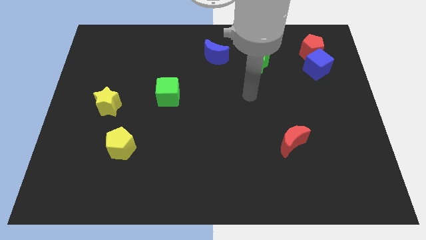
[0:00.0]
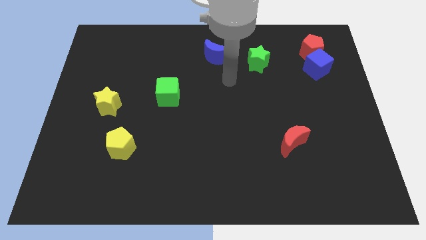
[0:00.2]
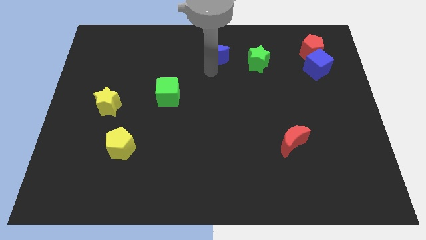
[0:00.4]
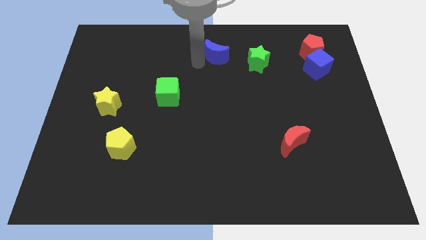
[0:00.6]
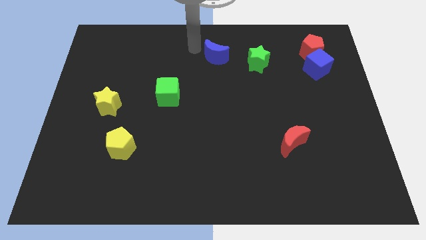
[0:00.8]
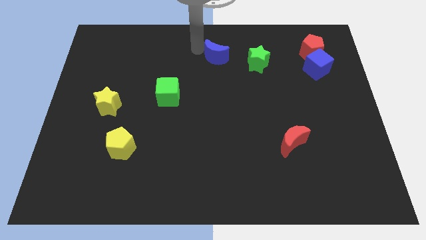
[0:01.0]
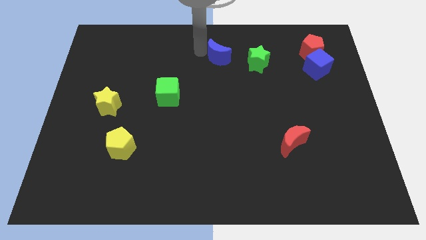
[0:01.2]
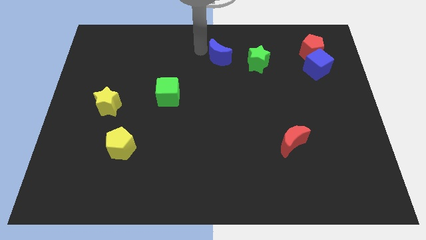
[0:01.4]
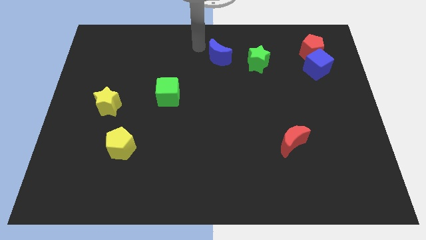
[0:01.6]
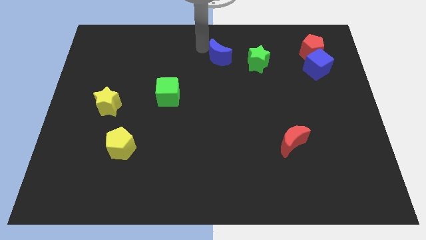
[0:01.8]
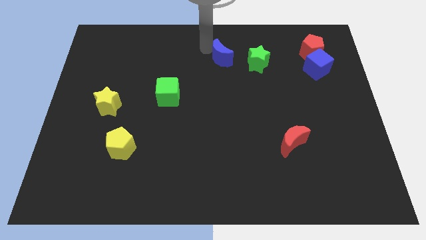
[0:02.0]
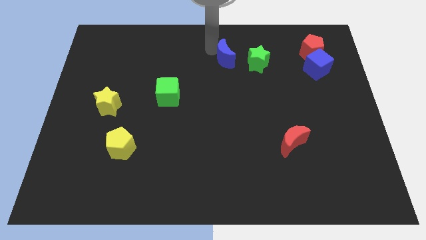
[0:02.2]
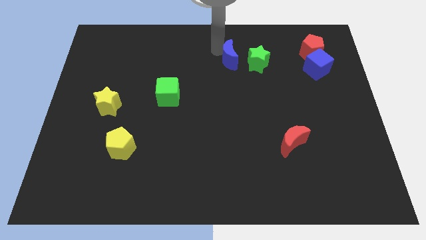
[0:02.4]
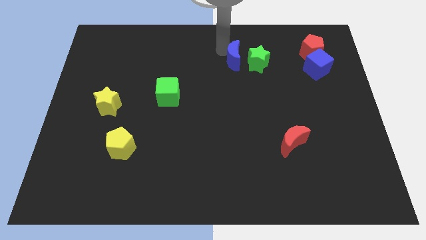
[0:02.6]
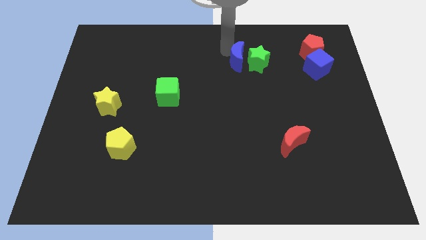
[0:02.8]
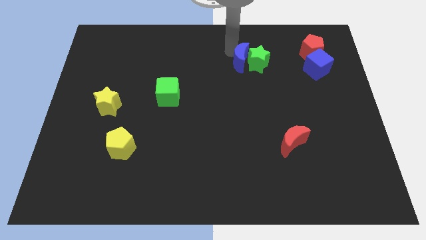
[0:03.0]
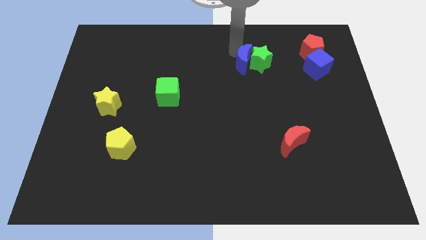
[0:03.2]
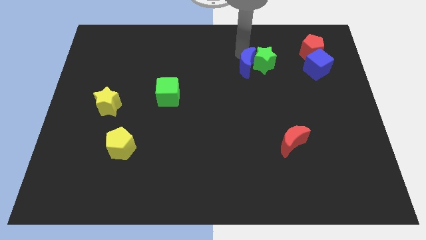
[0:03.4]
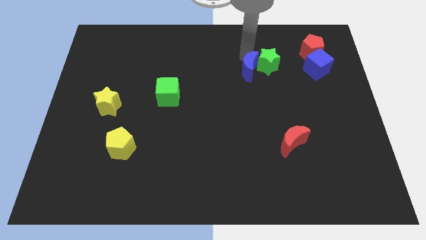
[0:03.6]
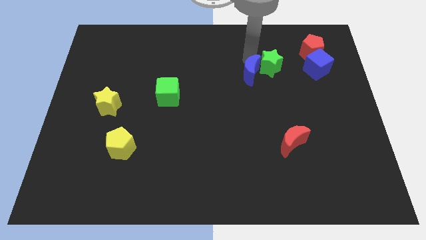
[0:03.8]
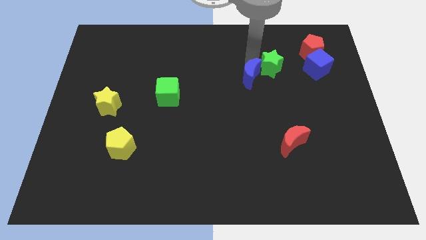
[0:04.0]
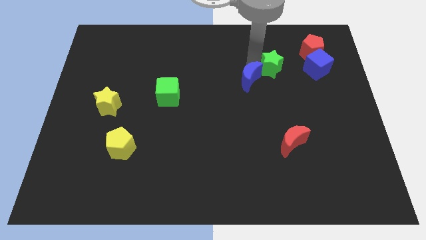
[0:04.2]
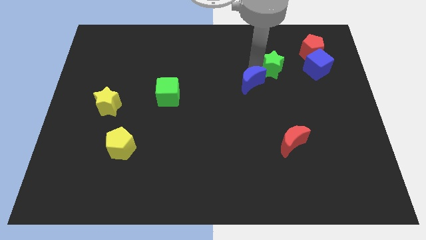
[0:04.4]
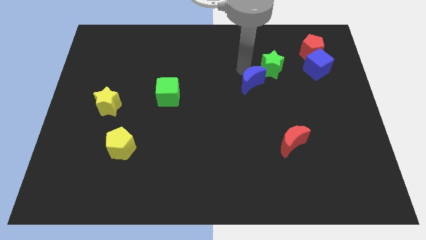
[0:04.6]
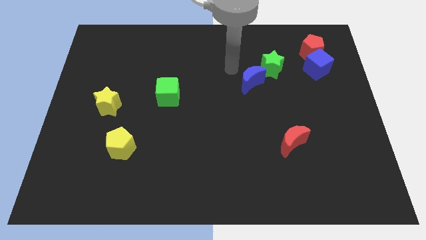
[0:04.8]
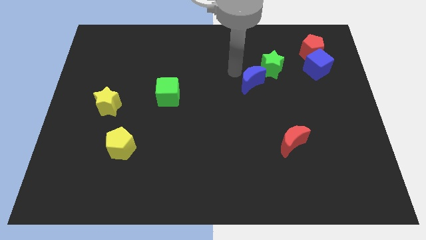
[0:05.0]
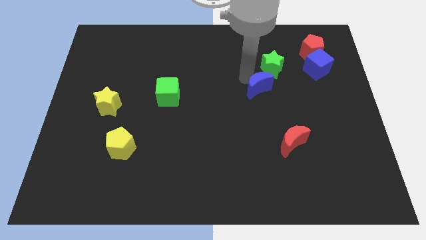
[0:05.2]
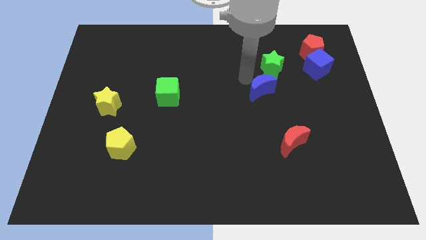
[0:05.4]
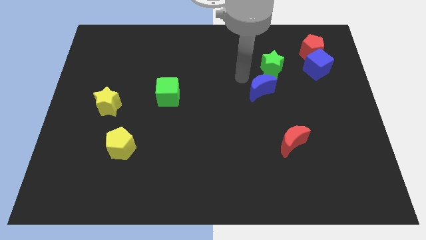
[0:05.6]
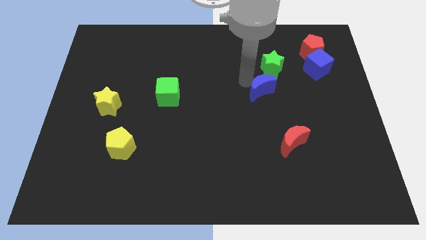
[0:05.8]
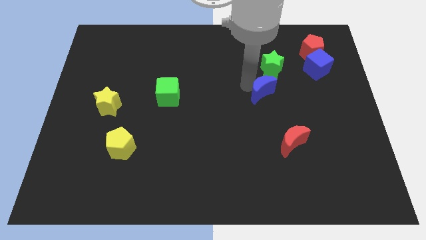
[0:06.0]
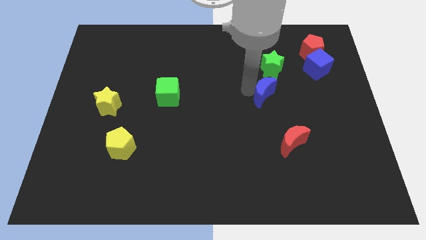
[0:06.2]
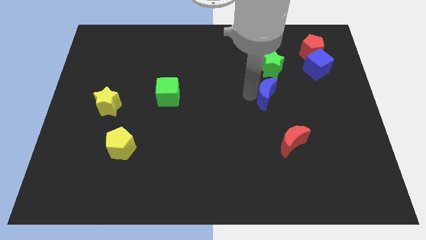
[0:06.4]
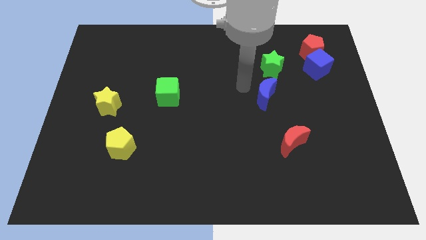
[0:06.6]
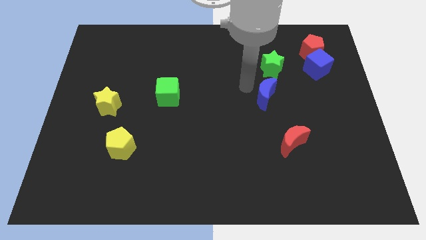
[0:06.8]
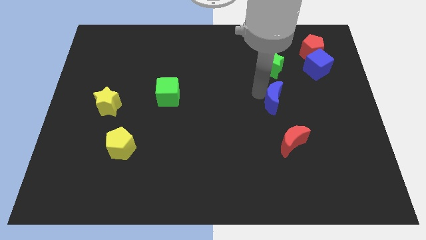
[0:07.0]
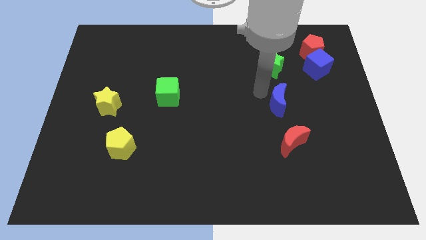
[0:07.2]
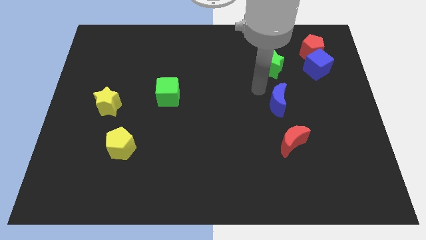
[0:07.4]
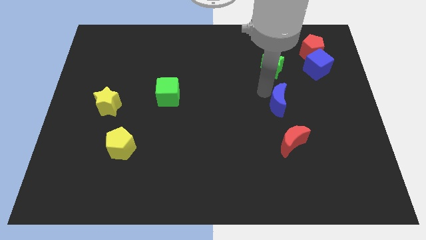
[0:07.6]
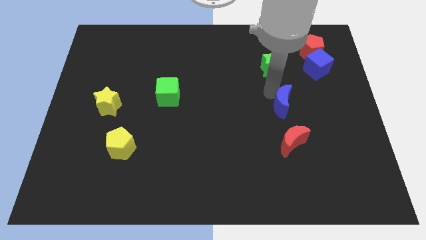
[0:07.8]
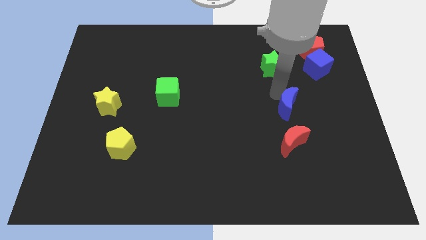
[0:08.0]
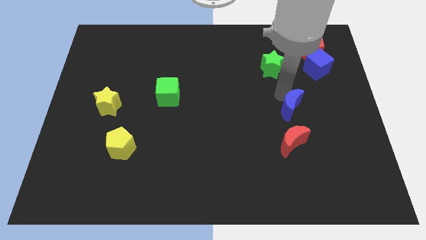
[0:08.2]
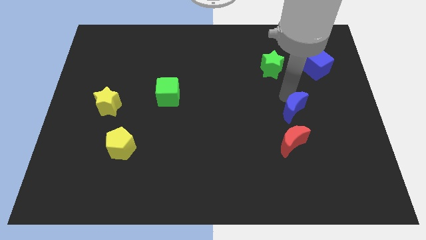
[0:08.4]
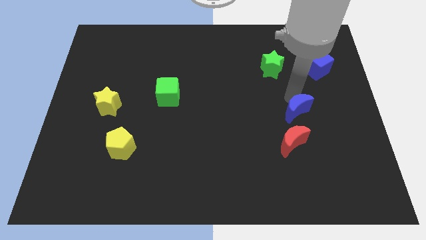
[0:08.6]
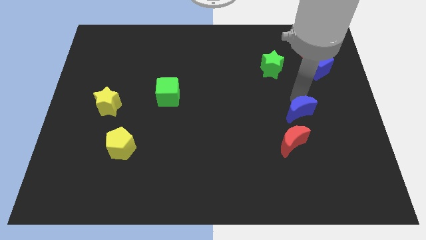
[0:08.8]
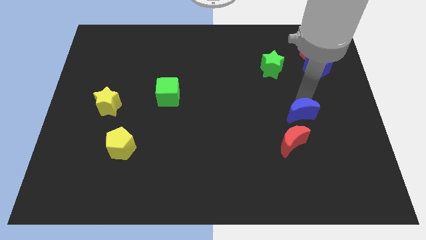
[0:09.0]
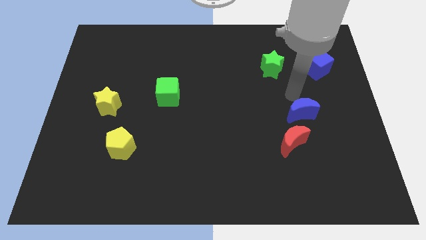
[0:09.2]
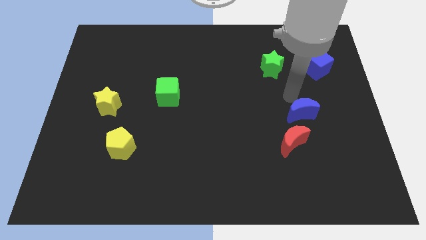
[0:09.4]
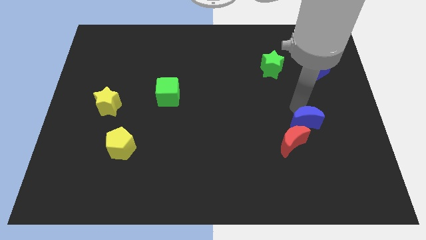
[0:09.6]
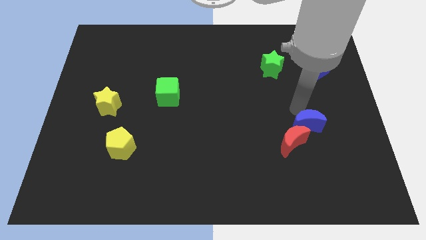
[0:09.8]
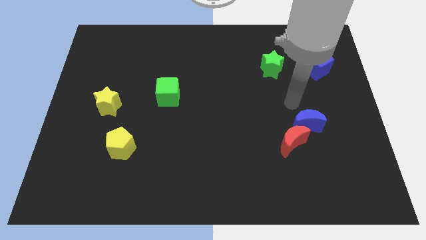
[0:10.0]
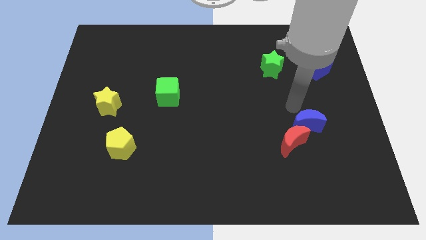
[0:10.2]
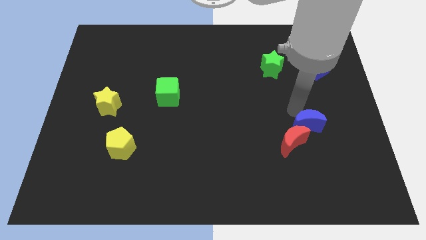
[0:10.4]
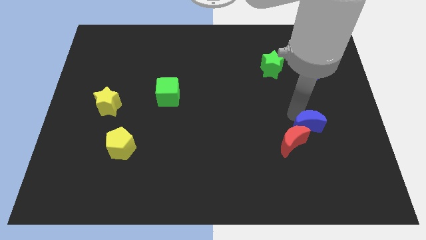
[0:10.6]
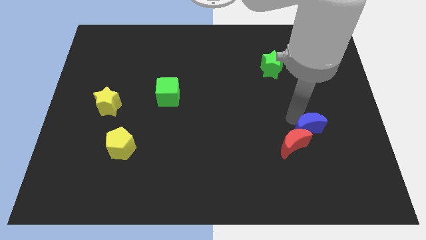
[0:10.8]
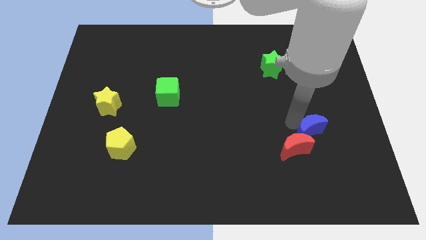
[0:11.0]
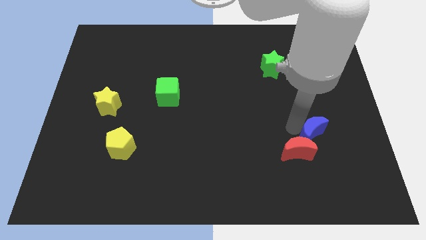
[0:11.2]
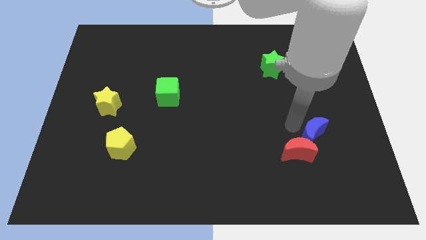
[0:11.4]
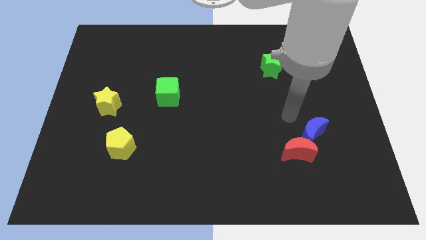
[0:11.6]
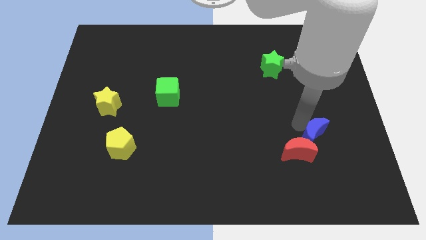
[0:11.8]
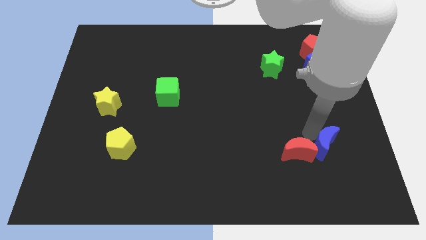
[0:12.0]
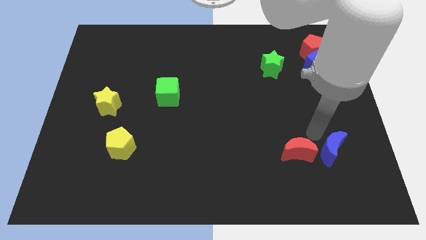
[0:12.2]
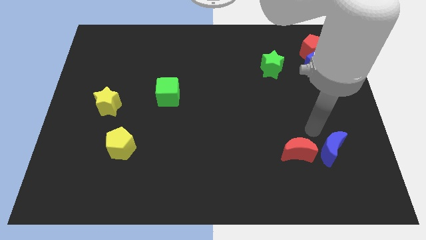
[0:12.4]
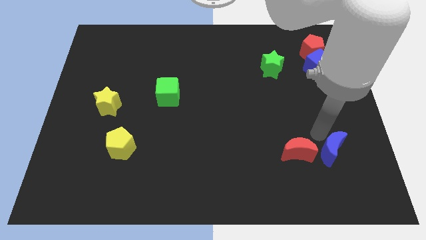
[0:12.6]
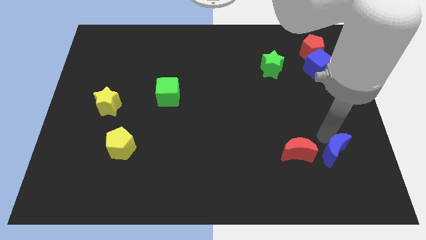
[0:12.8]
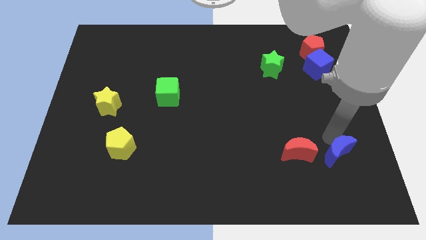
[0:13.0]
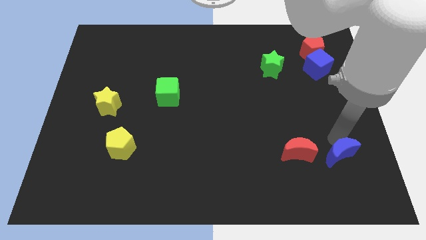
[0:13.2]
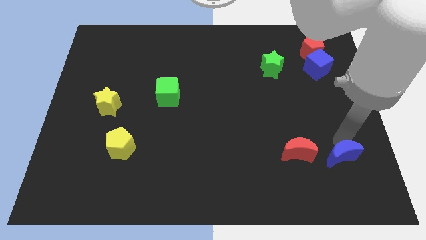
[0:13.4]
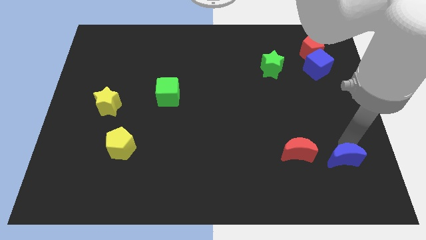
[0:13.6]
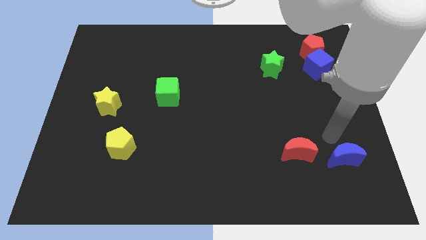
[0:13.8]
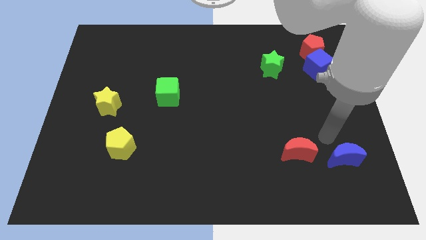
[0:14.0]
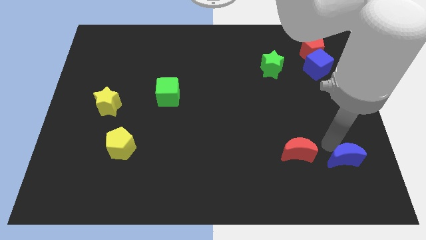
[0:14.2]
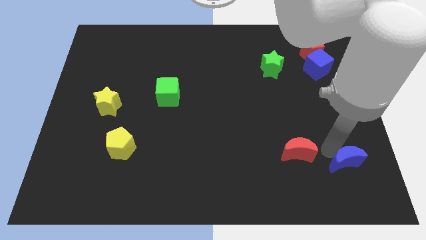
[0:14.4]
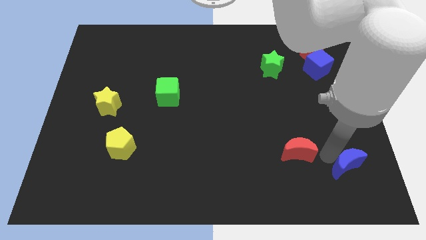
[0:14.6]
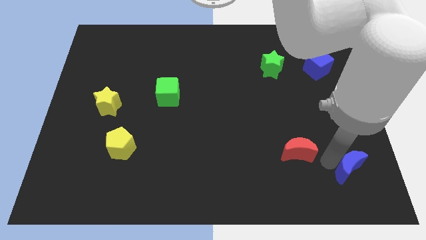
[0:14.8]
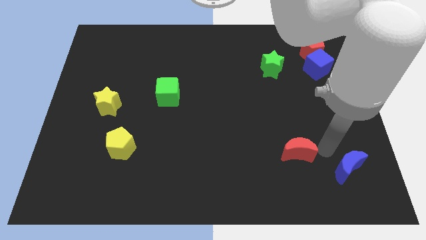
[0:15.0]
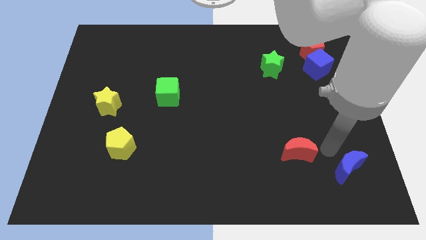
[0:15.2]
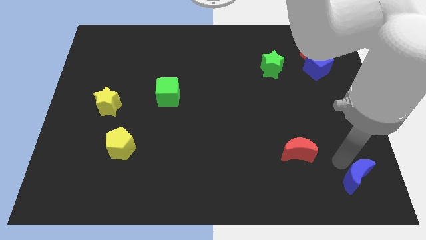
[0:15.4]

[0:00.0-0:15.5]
push the blue moon to the bottom right
